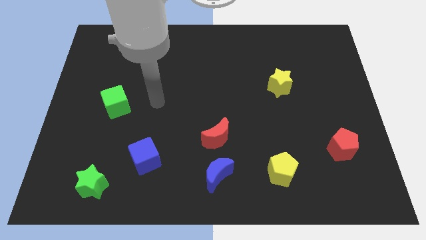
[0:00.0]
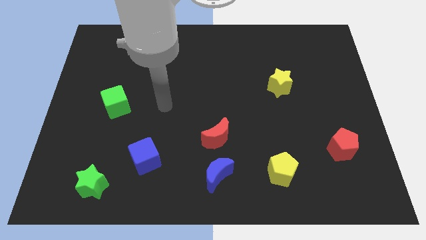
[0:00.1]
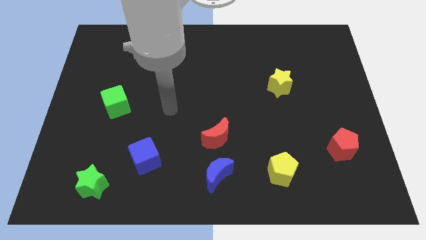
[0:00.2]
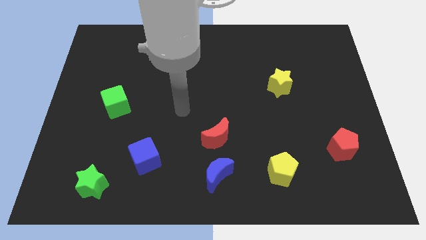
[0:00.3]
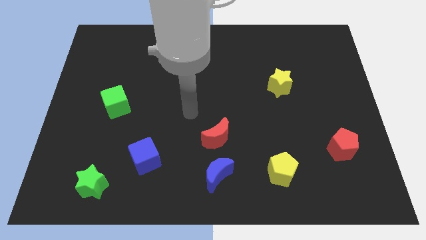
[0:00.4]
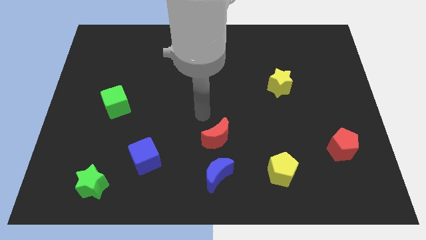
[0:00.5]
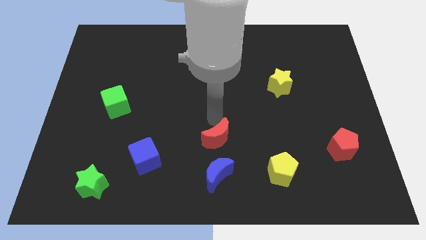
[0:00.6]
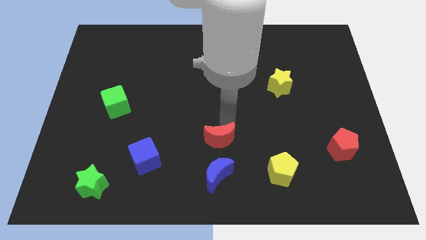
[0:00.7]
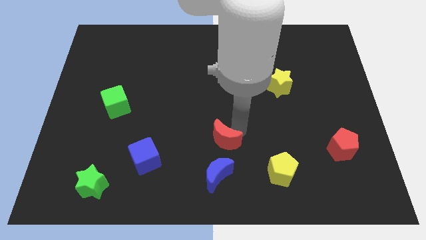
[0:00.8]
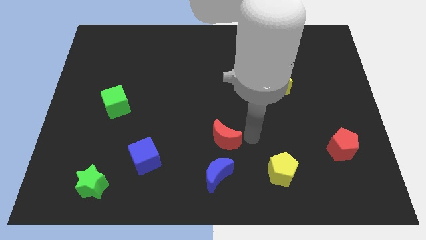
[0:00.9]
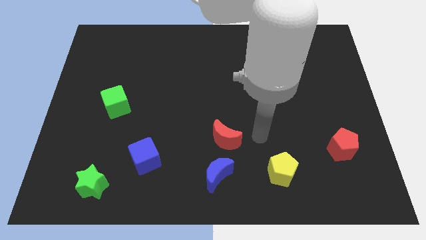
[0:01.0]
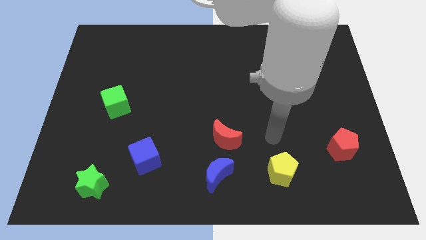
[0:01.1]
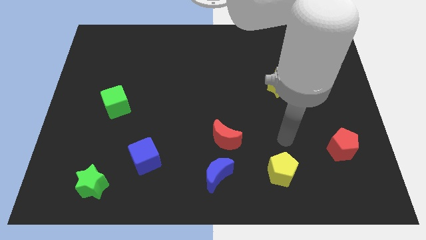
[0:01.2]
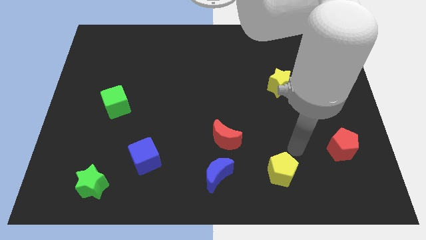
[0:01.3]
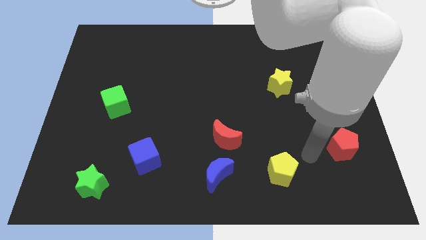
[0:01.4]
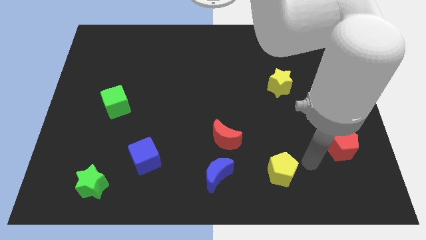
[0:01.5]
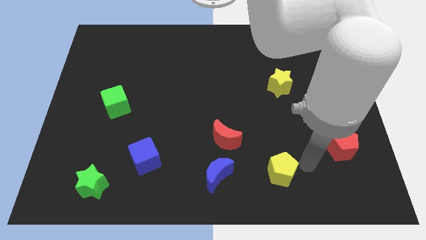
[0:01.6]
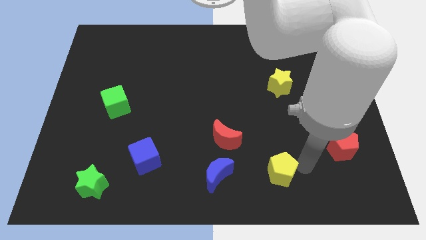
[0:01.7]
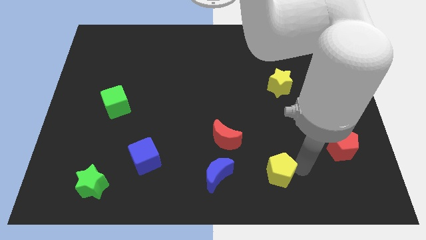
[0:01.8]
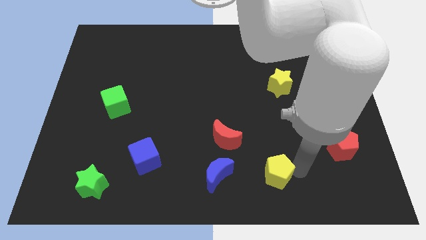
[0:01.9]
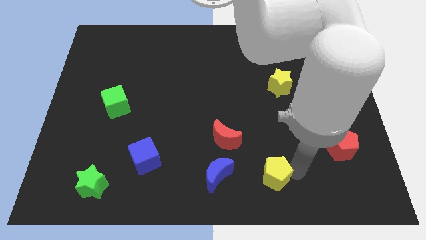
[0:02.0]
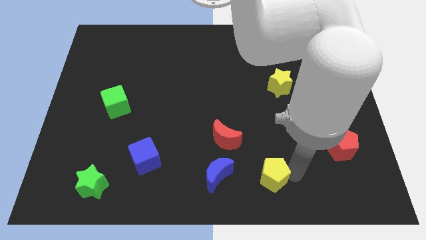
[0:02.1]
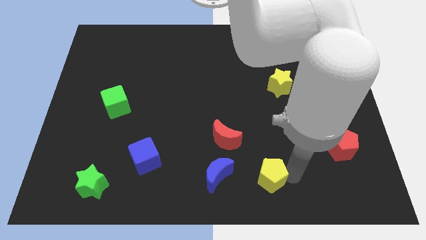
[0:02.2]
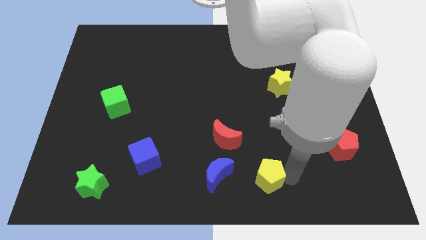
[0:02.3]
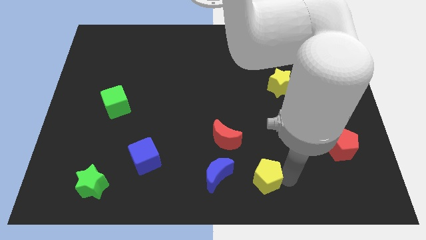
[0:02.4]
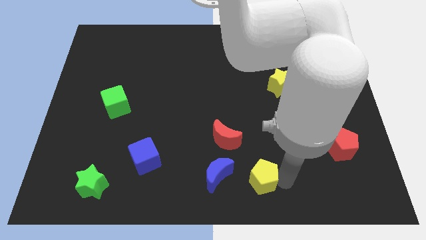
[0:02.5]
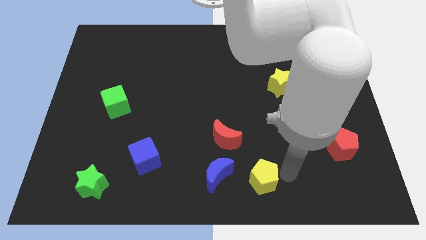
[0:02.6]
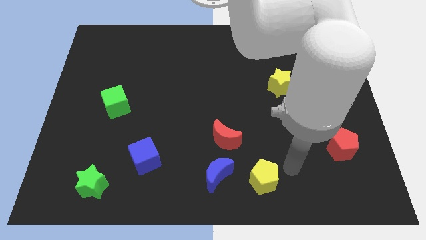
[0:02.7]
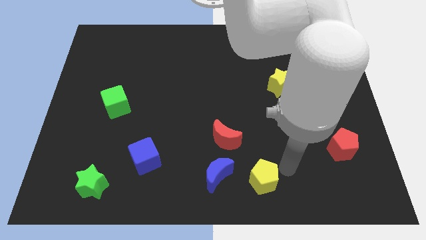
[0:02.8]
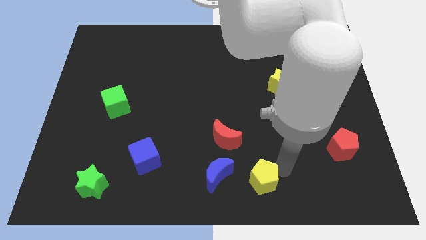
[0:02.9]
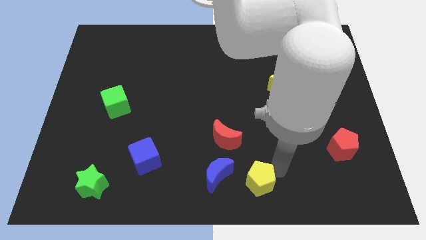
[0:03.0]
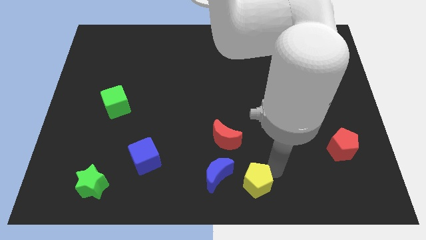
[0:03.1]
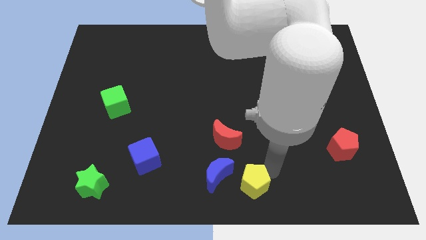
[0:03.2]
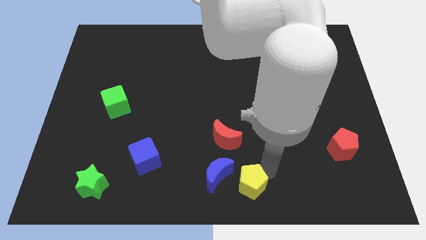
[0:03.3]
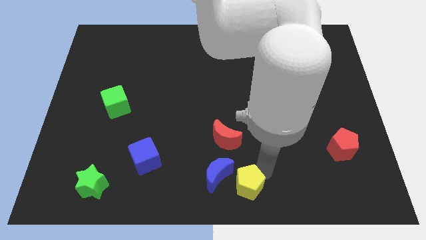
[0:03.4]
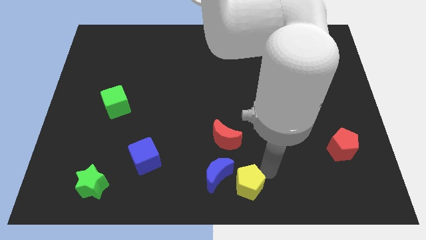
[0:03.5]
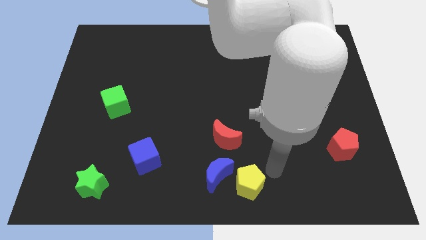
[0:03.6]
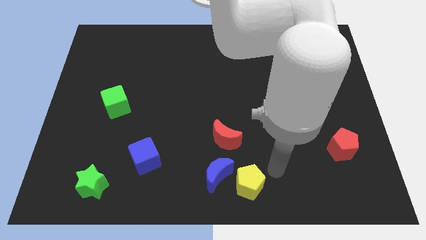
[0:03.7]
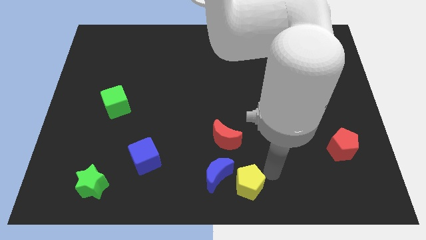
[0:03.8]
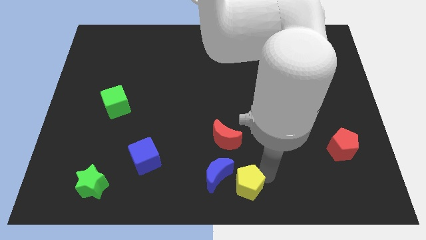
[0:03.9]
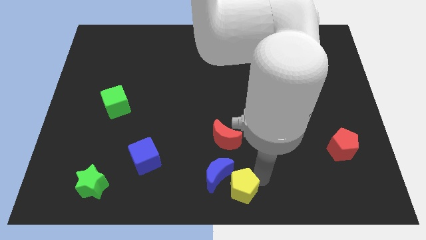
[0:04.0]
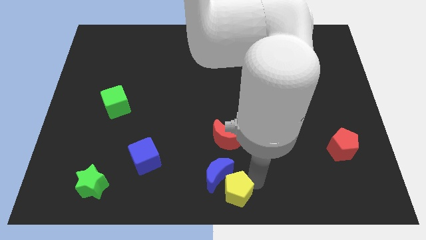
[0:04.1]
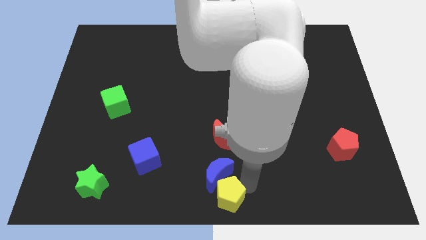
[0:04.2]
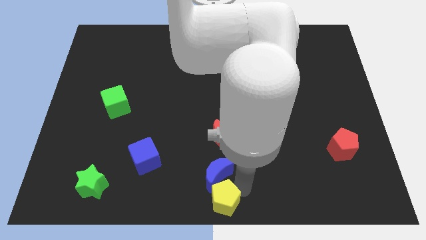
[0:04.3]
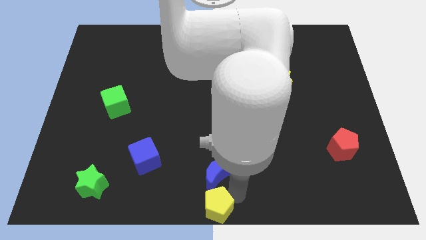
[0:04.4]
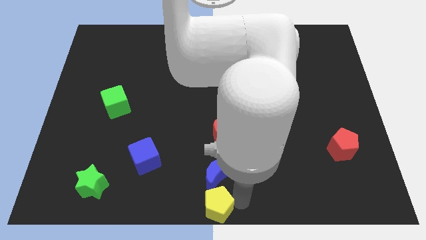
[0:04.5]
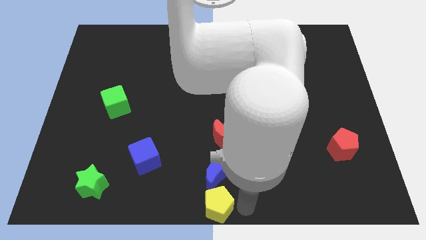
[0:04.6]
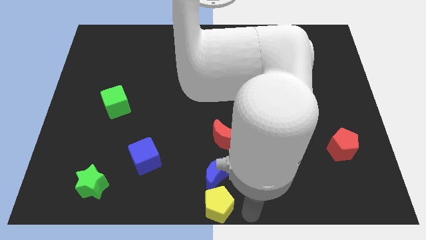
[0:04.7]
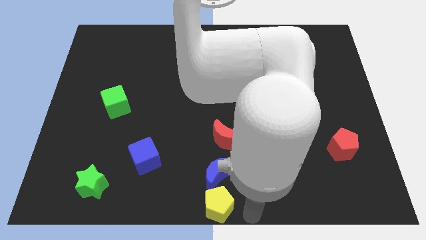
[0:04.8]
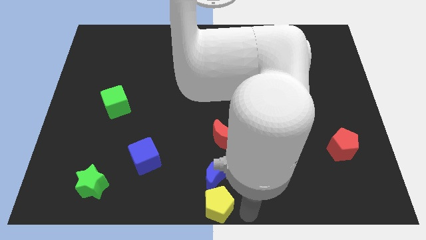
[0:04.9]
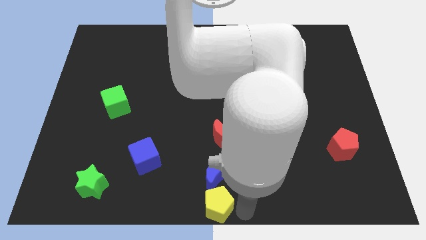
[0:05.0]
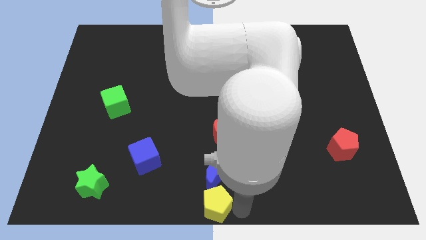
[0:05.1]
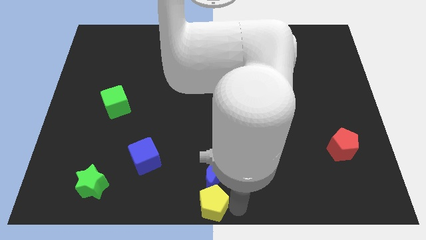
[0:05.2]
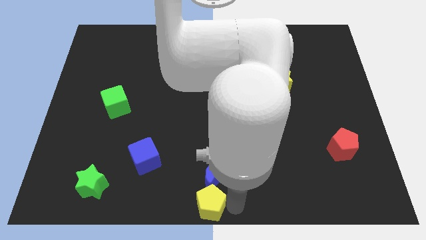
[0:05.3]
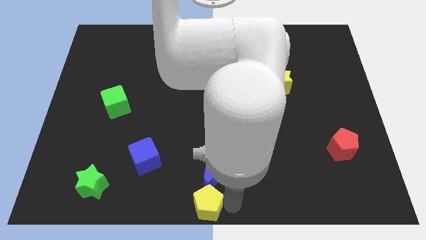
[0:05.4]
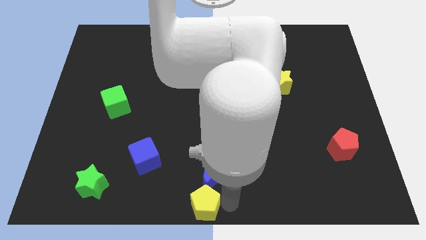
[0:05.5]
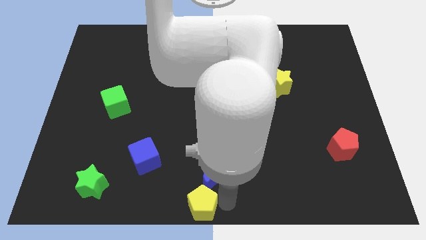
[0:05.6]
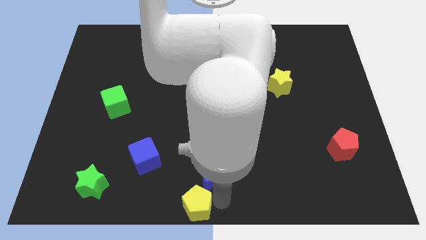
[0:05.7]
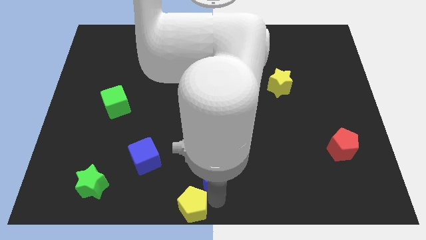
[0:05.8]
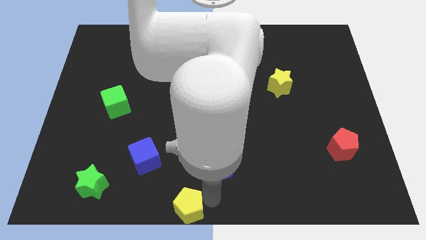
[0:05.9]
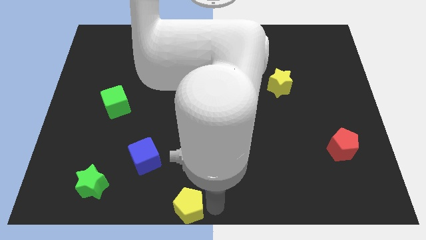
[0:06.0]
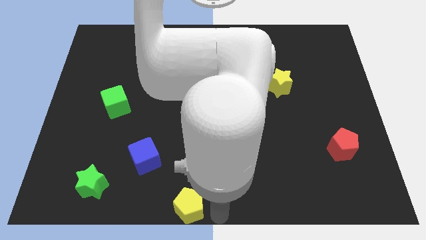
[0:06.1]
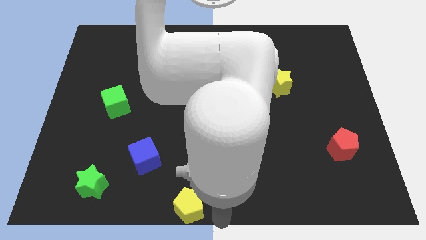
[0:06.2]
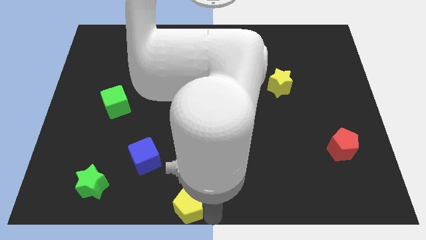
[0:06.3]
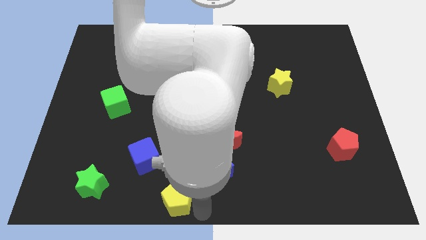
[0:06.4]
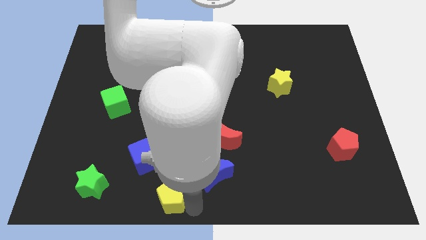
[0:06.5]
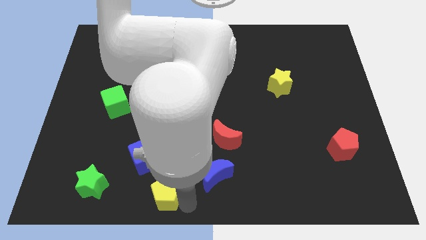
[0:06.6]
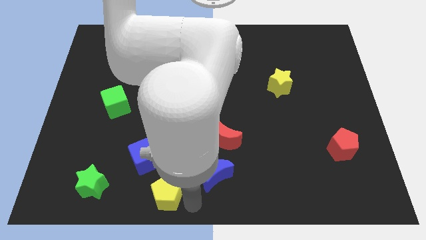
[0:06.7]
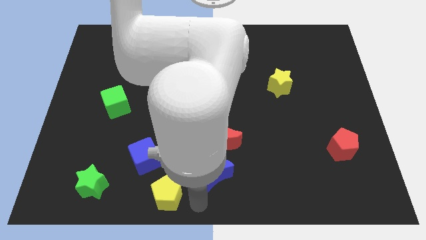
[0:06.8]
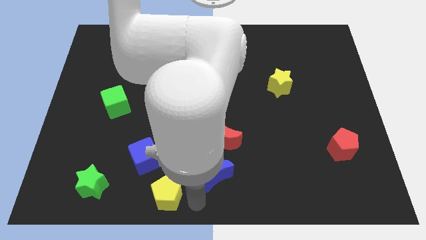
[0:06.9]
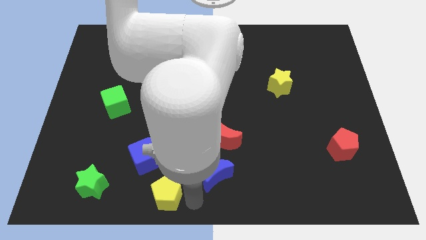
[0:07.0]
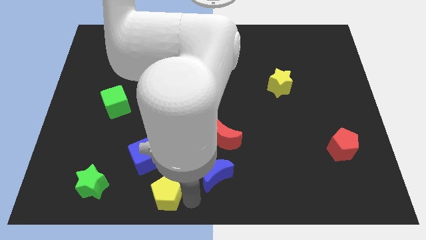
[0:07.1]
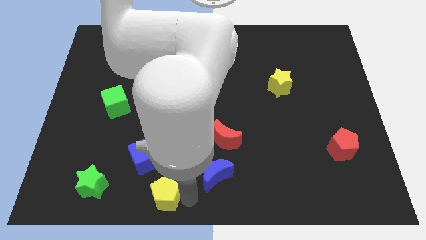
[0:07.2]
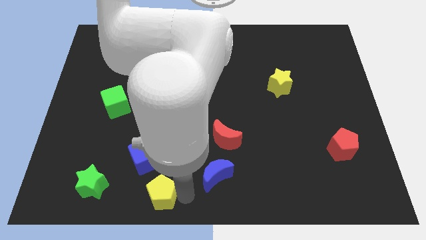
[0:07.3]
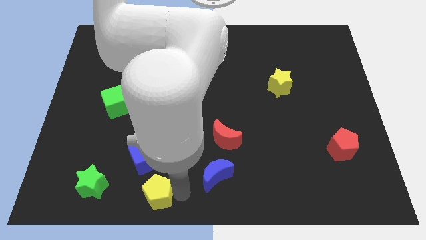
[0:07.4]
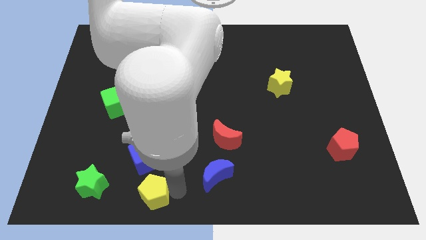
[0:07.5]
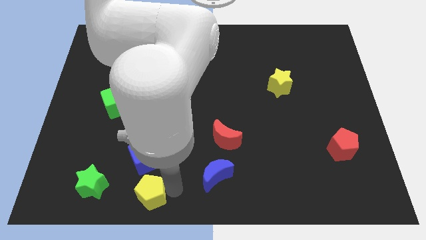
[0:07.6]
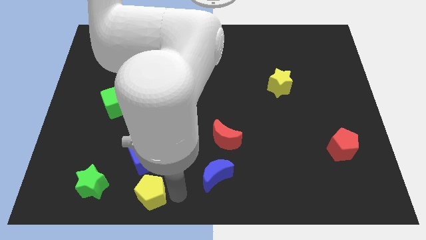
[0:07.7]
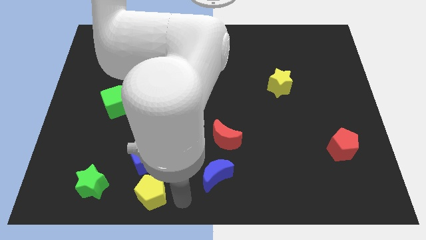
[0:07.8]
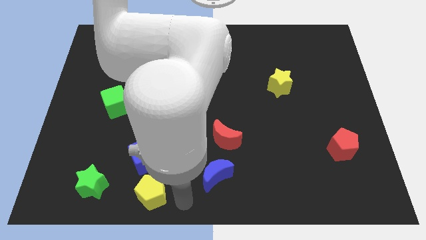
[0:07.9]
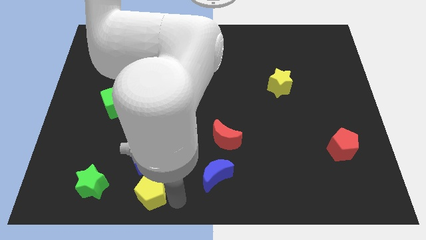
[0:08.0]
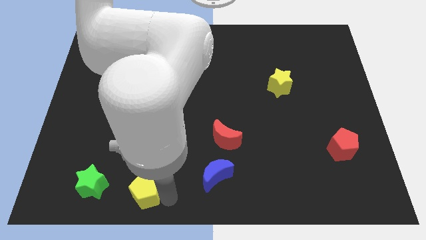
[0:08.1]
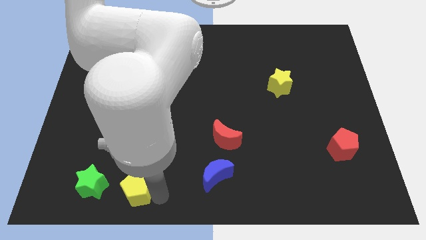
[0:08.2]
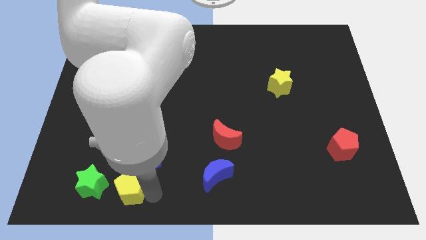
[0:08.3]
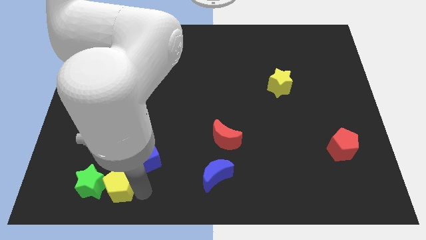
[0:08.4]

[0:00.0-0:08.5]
push the yellow pentagon close to the green star
